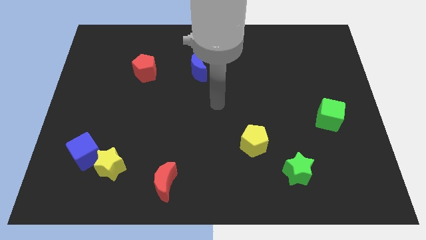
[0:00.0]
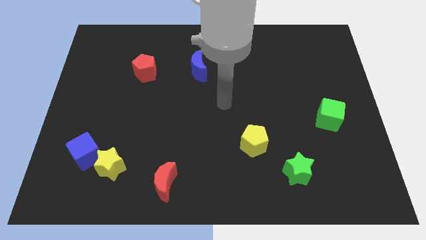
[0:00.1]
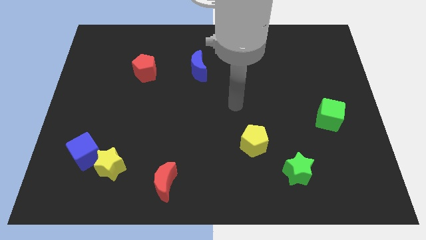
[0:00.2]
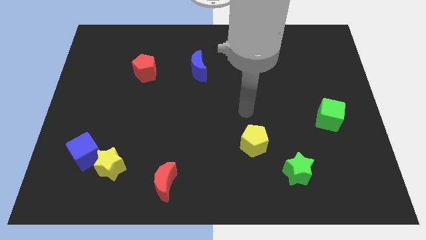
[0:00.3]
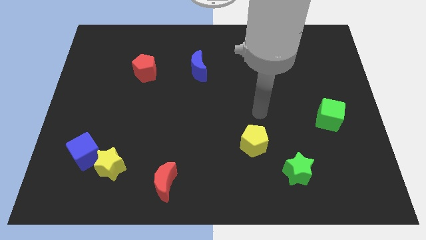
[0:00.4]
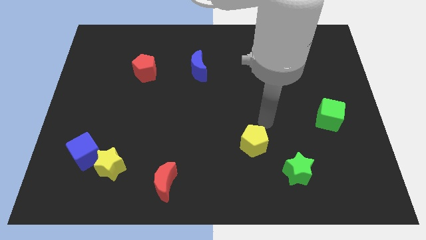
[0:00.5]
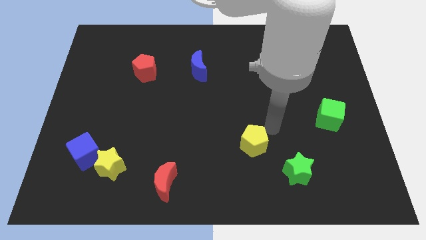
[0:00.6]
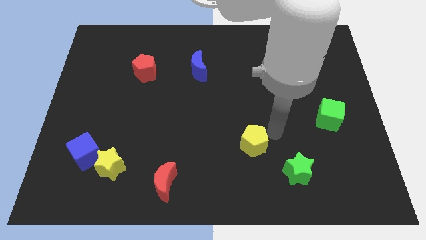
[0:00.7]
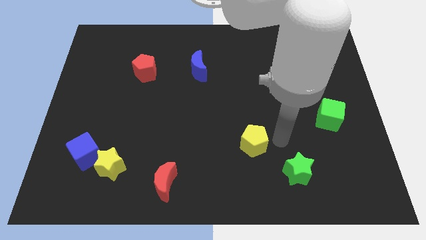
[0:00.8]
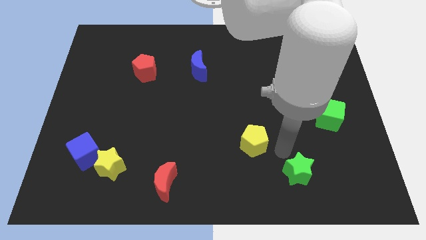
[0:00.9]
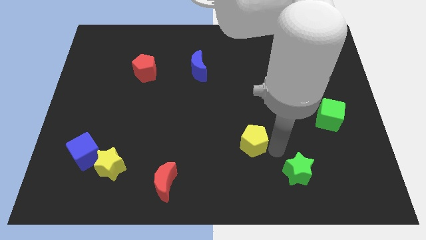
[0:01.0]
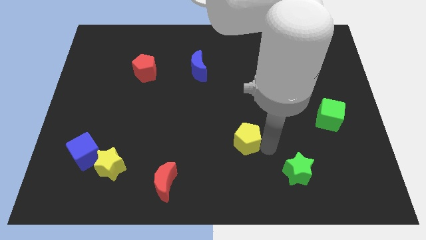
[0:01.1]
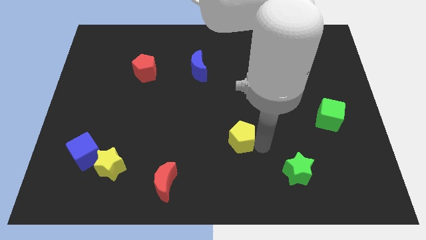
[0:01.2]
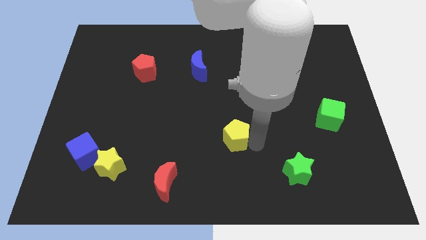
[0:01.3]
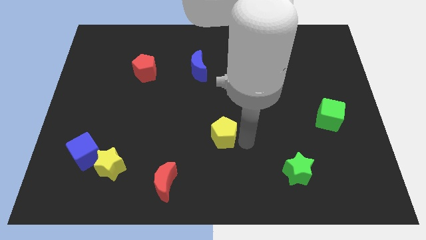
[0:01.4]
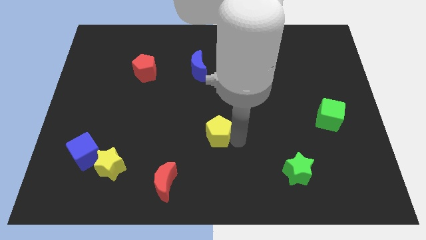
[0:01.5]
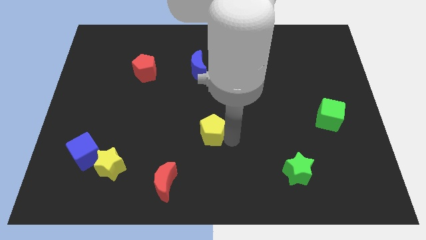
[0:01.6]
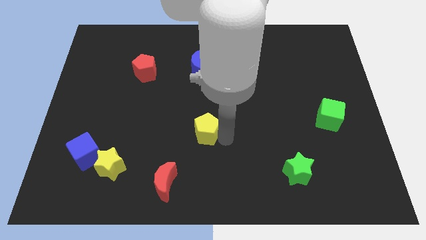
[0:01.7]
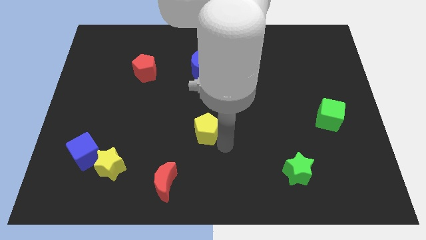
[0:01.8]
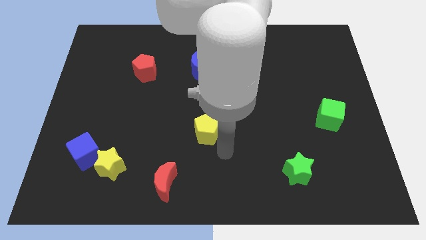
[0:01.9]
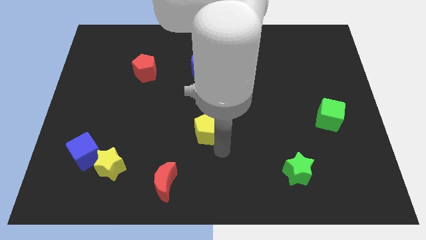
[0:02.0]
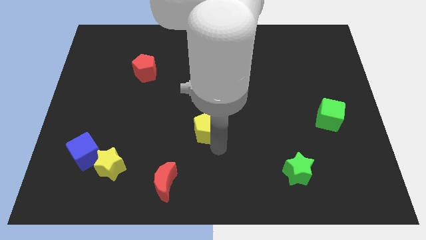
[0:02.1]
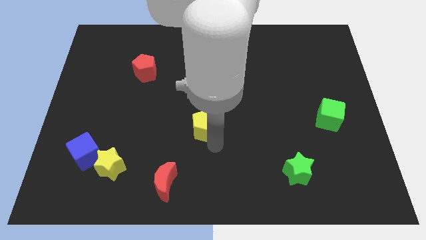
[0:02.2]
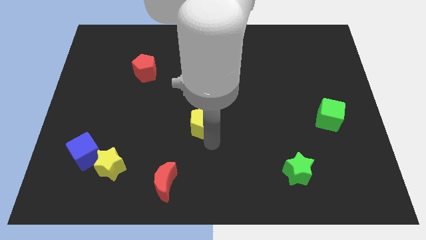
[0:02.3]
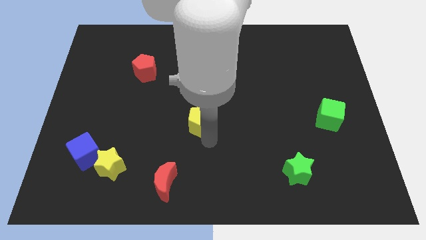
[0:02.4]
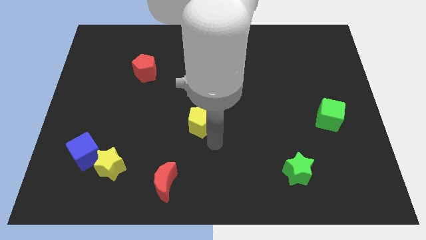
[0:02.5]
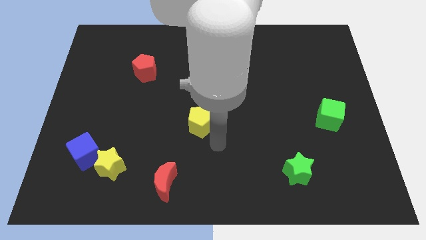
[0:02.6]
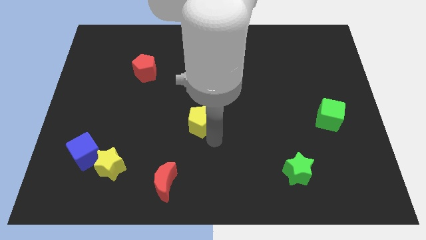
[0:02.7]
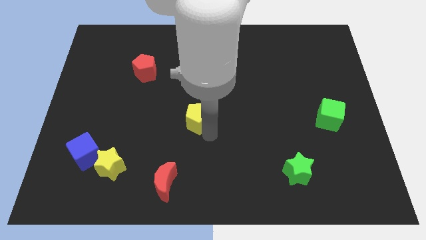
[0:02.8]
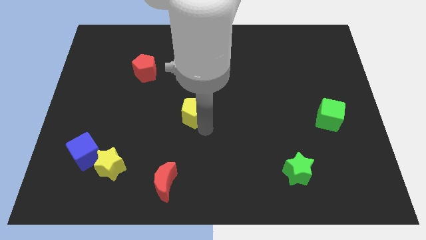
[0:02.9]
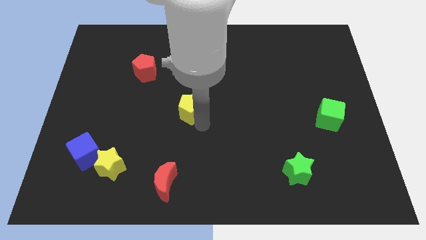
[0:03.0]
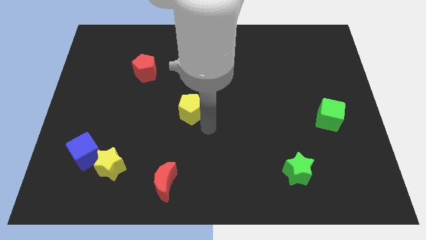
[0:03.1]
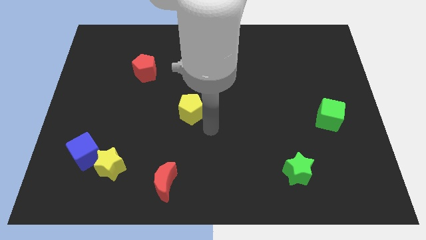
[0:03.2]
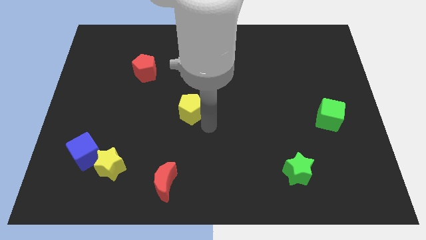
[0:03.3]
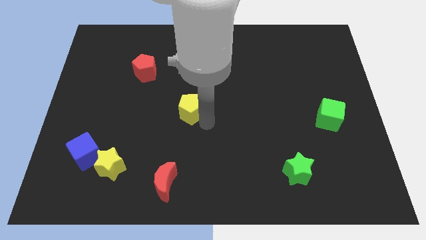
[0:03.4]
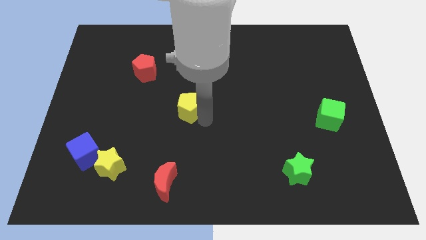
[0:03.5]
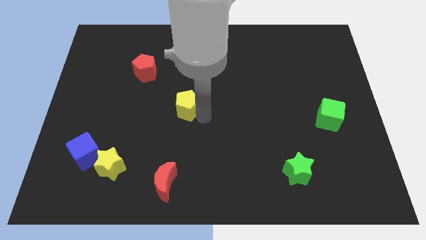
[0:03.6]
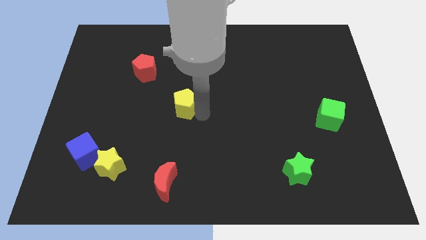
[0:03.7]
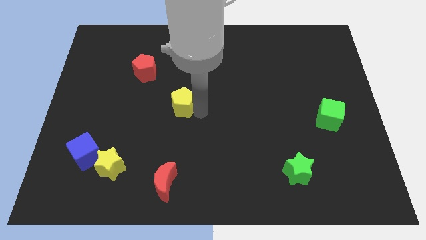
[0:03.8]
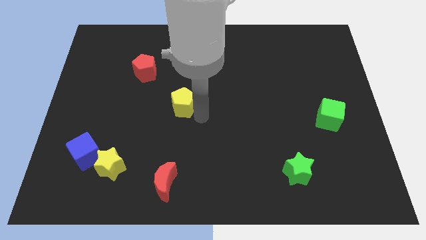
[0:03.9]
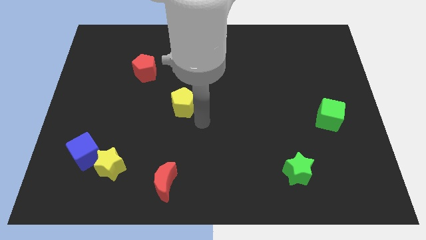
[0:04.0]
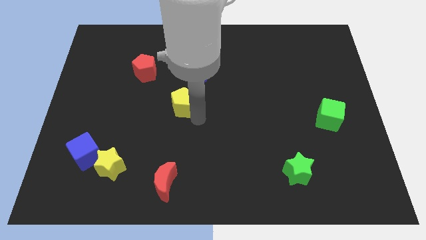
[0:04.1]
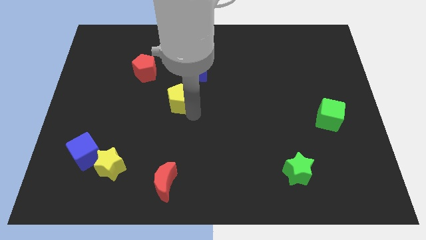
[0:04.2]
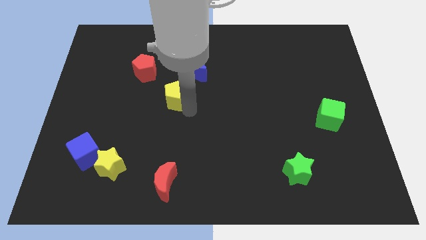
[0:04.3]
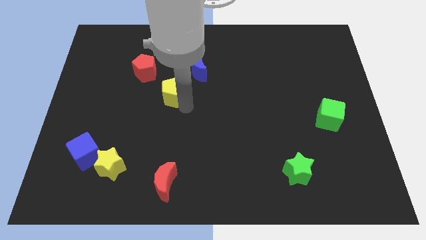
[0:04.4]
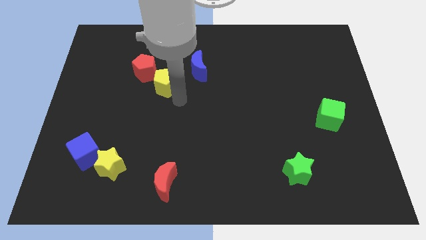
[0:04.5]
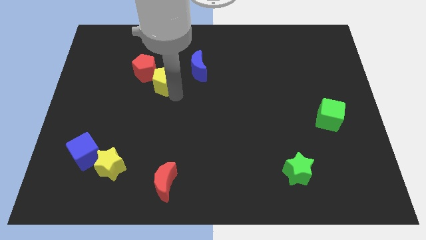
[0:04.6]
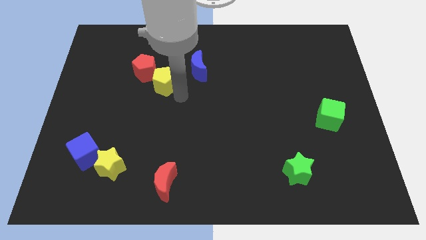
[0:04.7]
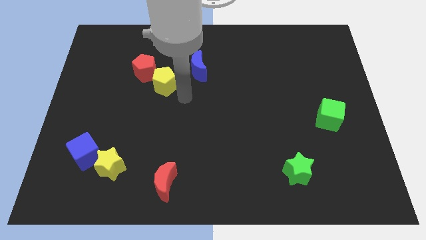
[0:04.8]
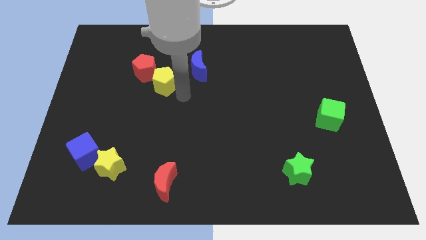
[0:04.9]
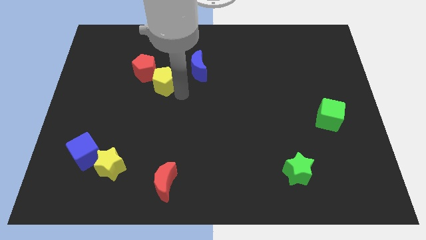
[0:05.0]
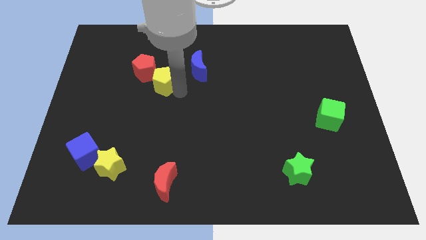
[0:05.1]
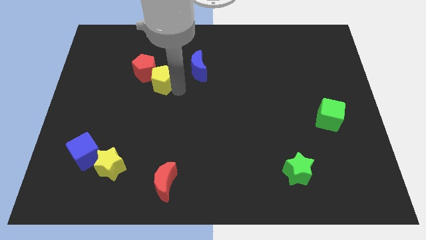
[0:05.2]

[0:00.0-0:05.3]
put the yellow pentagon next to the red pentagon

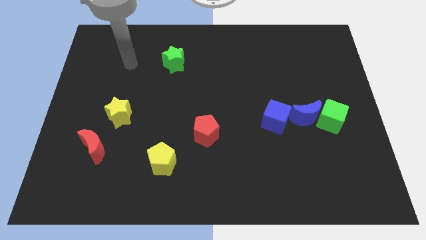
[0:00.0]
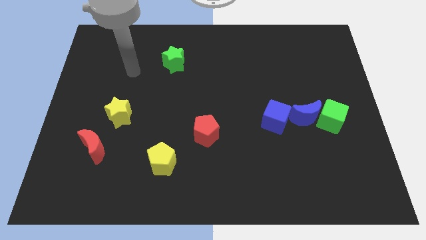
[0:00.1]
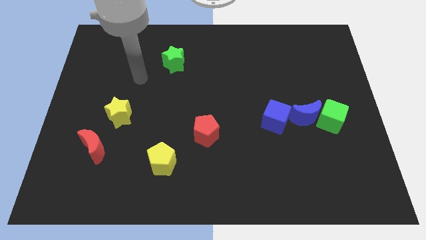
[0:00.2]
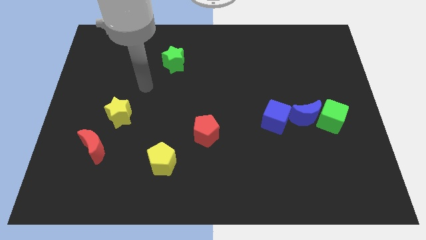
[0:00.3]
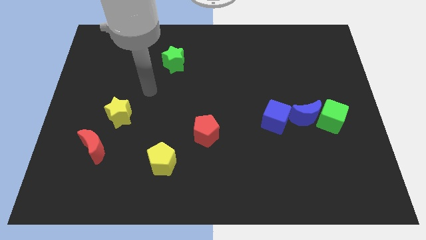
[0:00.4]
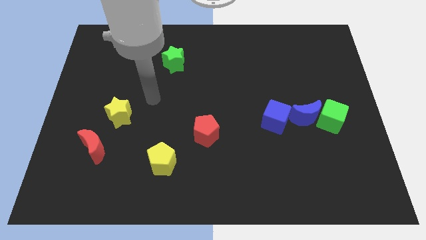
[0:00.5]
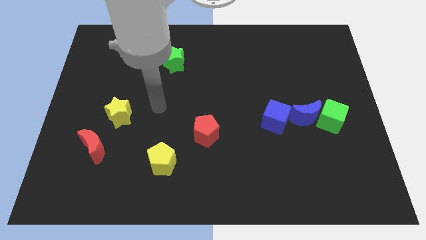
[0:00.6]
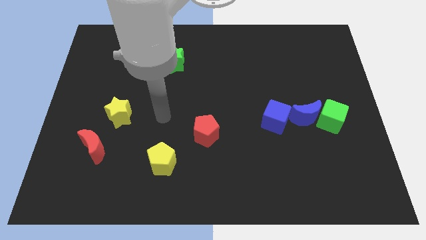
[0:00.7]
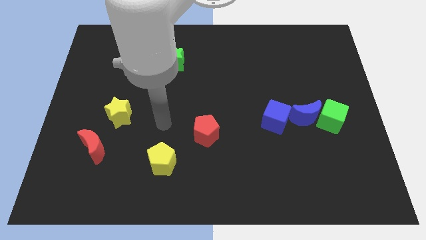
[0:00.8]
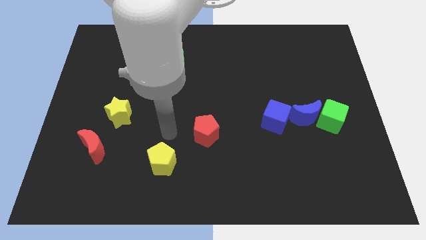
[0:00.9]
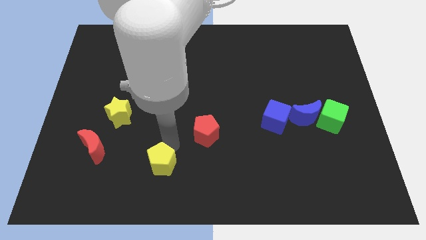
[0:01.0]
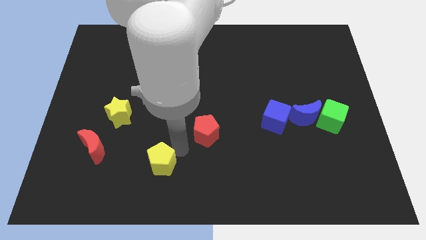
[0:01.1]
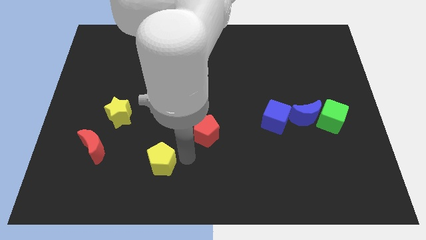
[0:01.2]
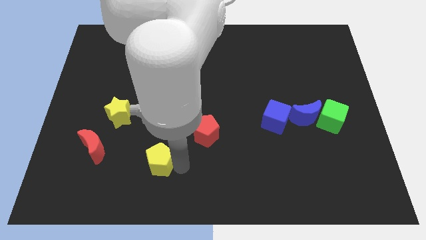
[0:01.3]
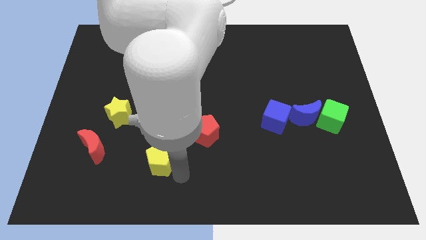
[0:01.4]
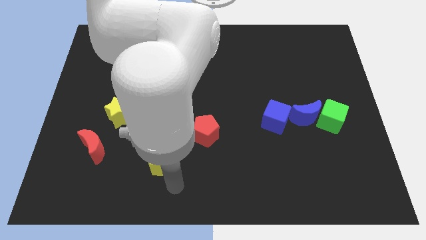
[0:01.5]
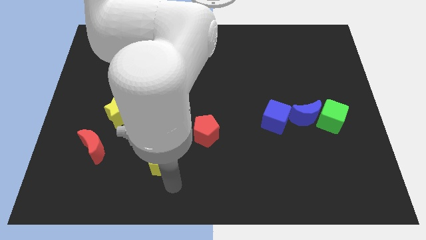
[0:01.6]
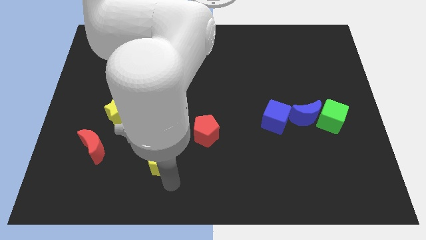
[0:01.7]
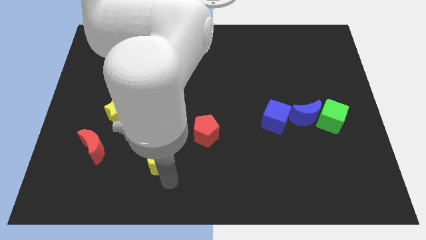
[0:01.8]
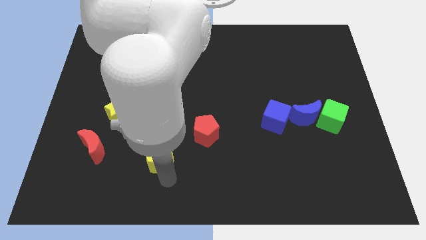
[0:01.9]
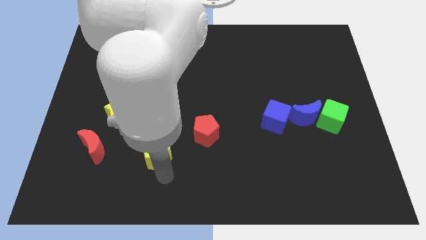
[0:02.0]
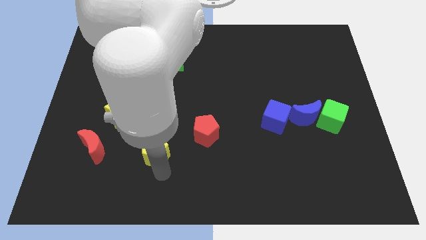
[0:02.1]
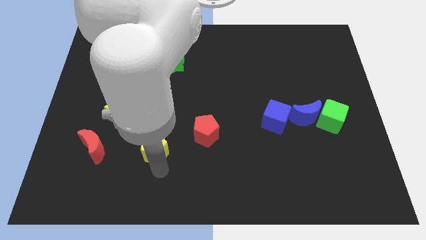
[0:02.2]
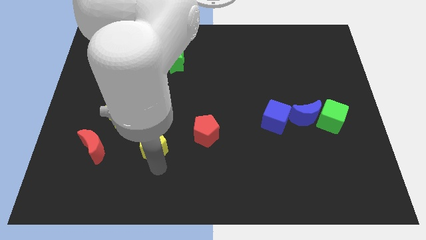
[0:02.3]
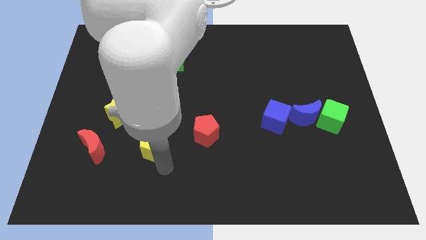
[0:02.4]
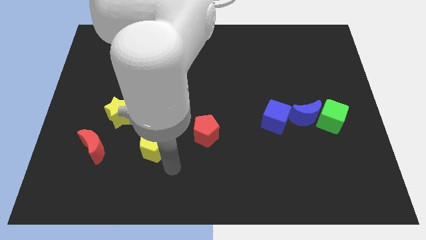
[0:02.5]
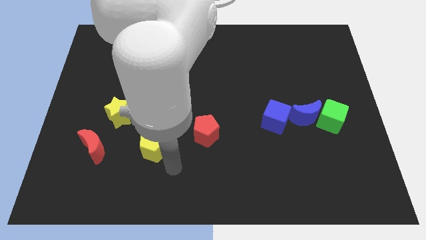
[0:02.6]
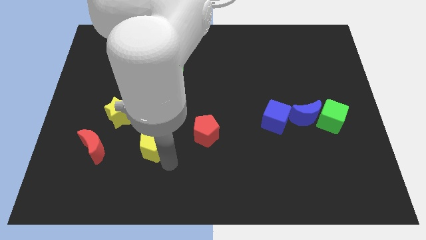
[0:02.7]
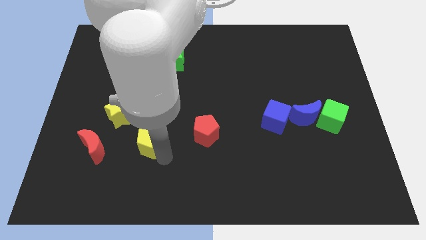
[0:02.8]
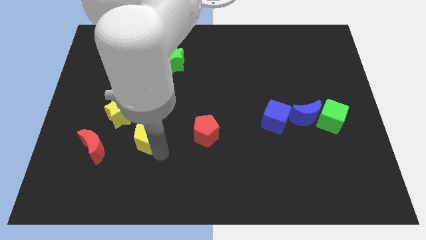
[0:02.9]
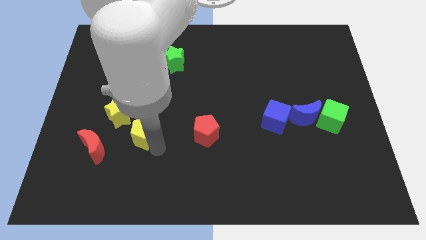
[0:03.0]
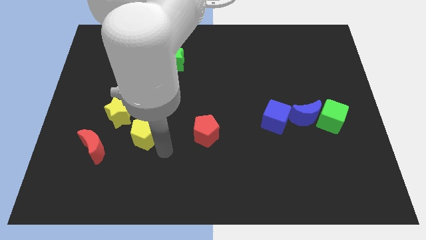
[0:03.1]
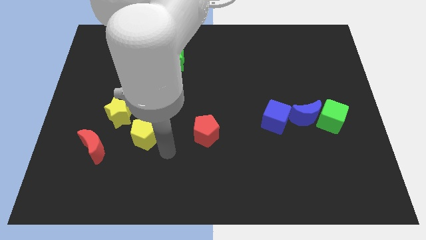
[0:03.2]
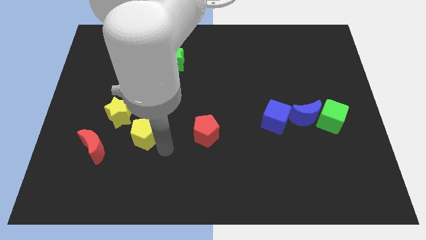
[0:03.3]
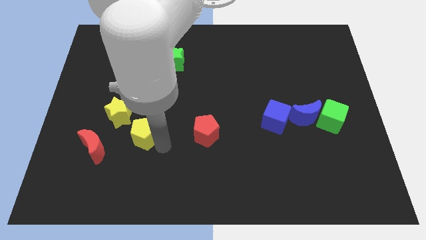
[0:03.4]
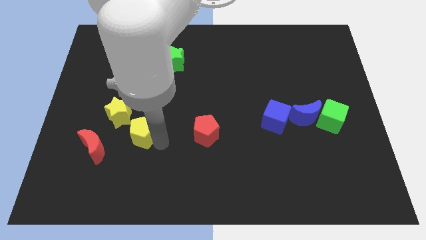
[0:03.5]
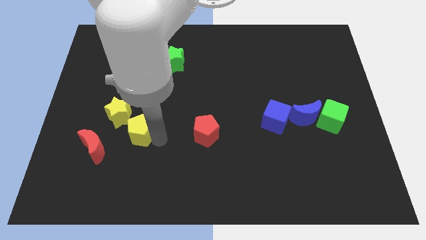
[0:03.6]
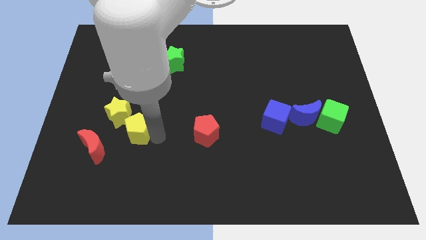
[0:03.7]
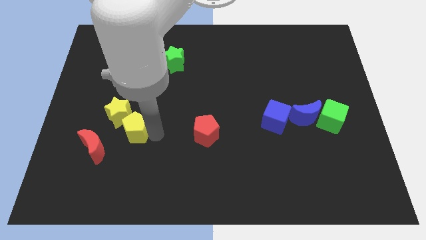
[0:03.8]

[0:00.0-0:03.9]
push the yellow pentagon close to the yellow star
